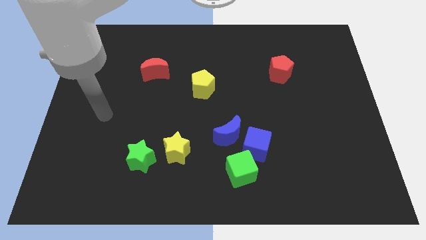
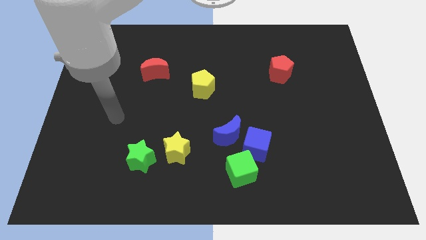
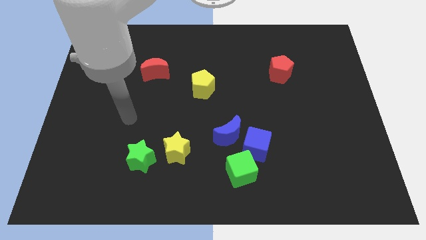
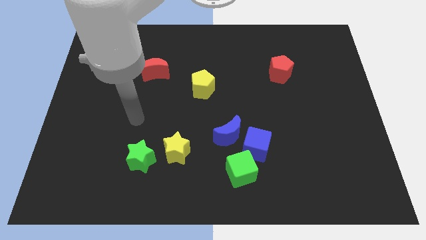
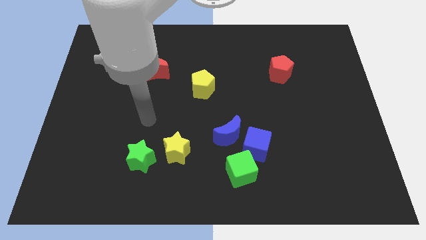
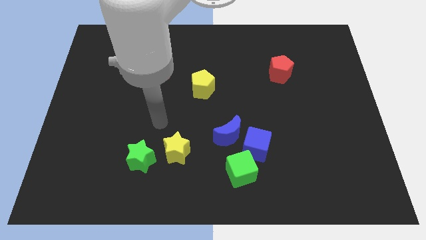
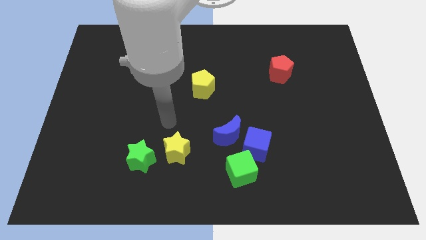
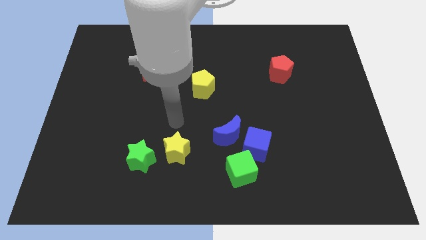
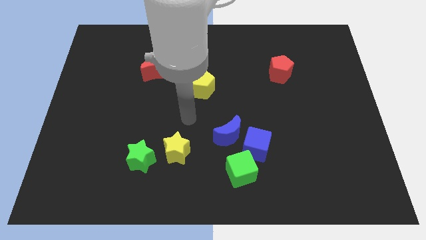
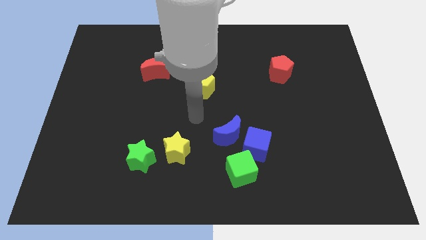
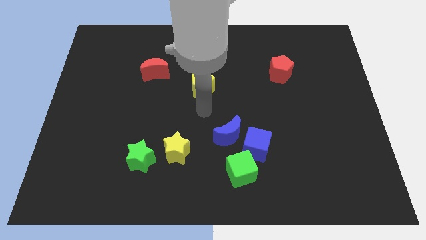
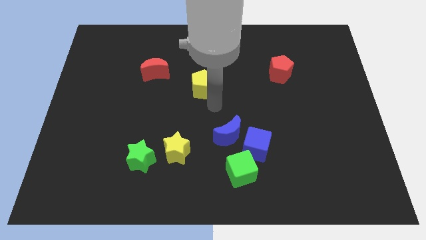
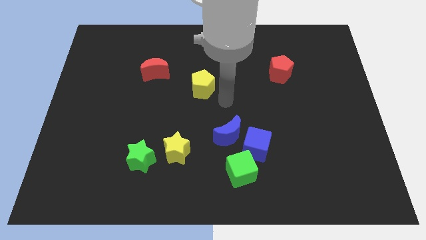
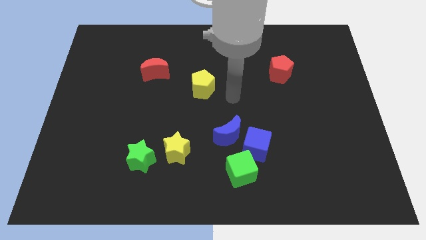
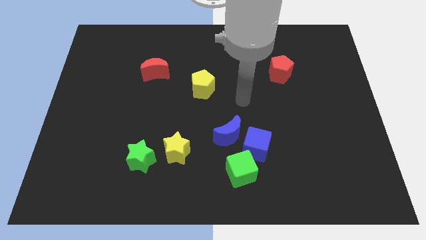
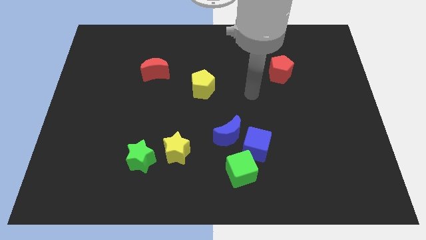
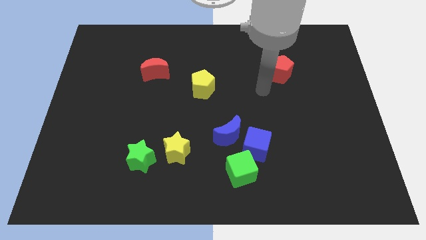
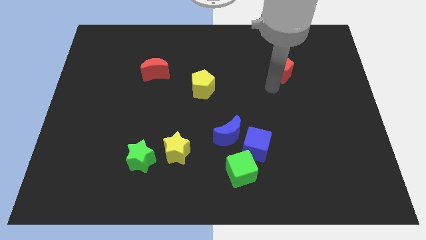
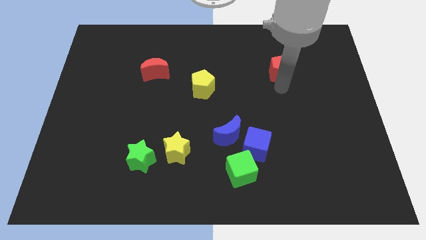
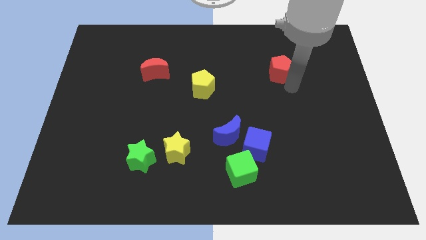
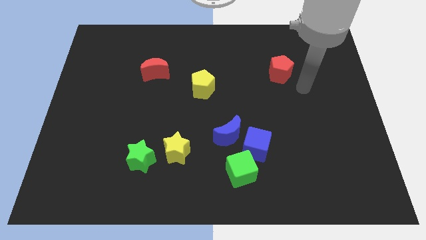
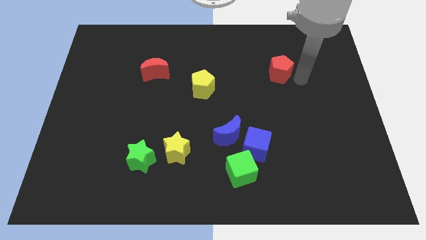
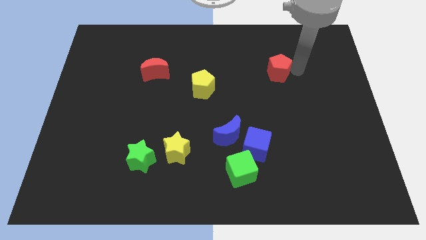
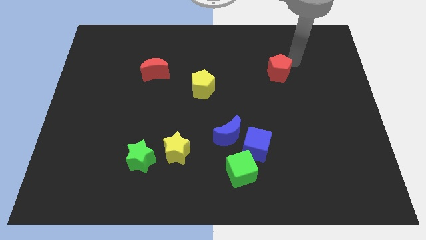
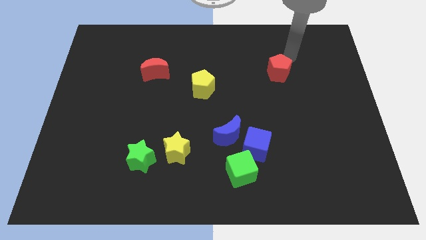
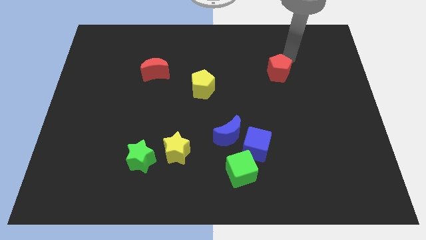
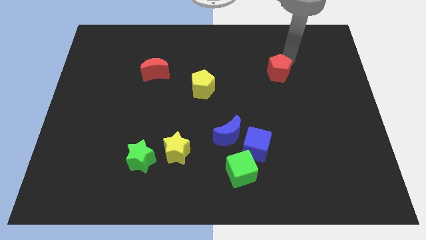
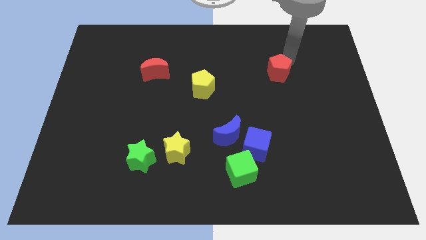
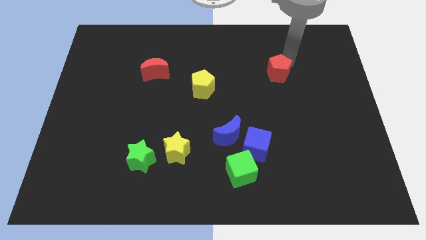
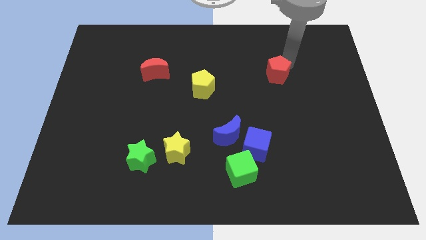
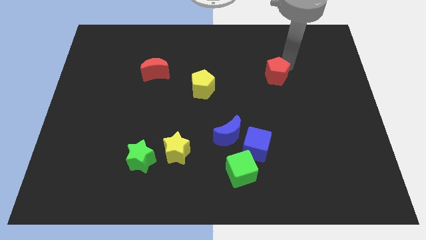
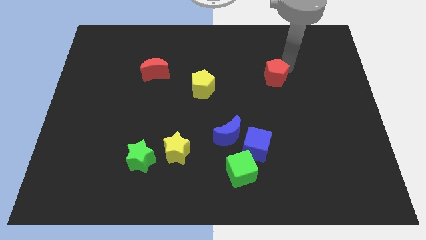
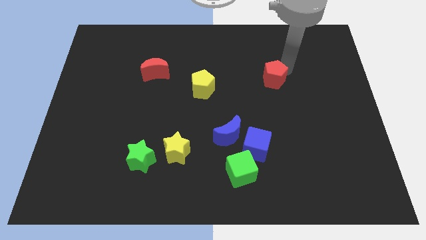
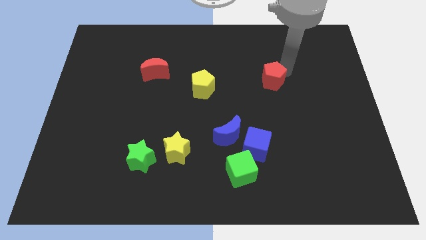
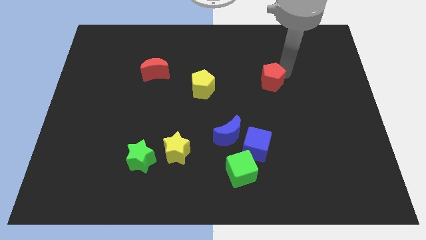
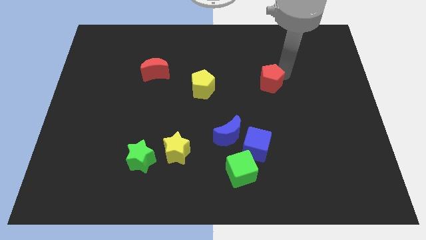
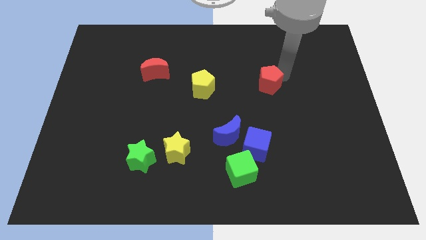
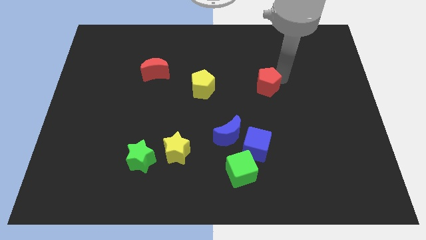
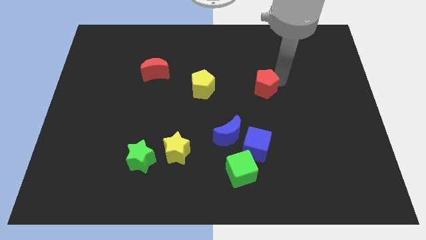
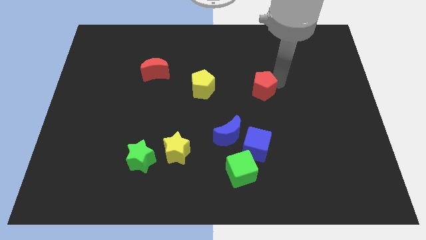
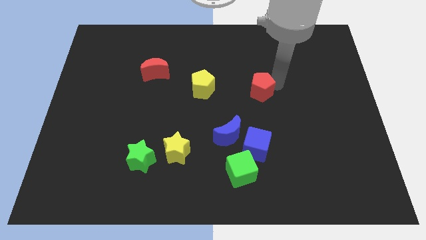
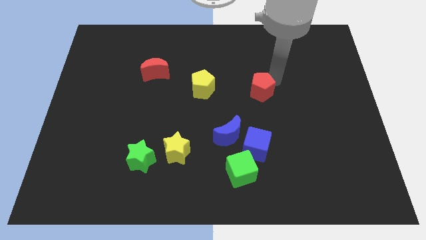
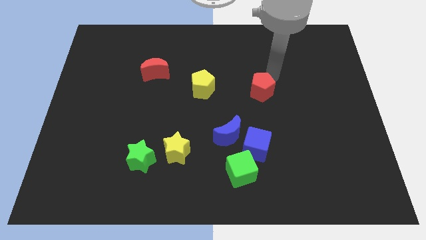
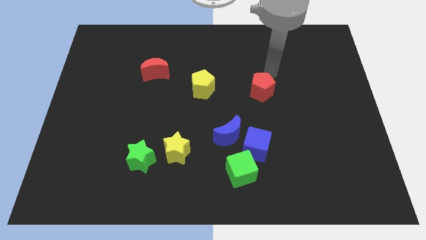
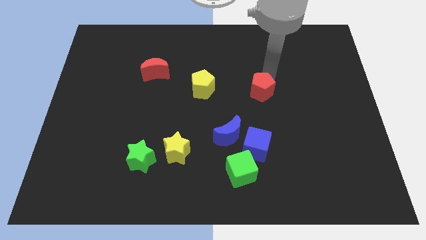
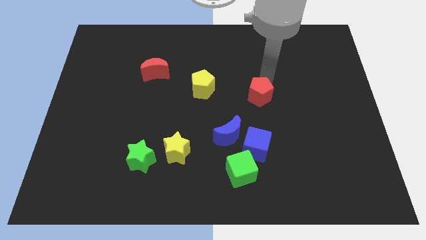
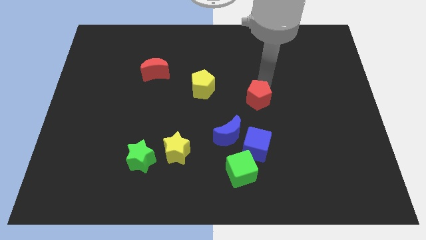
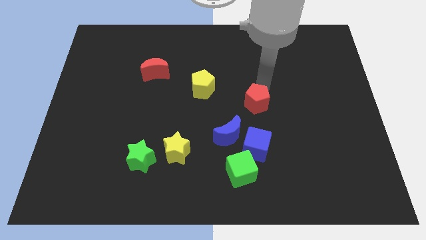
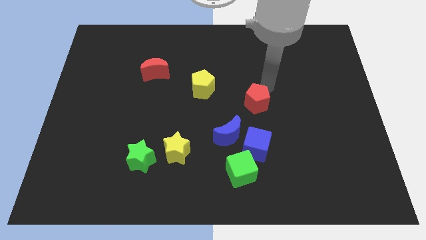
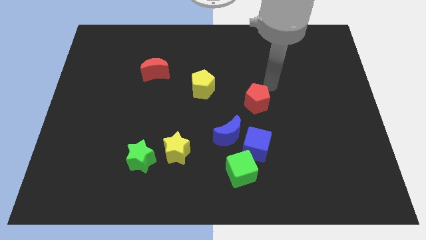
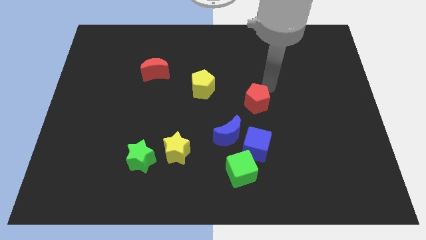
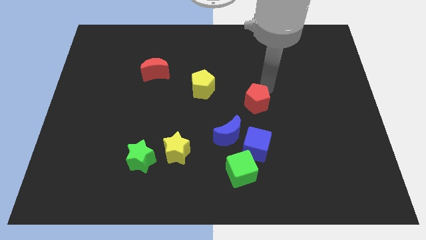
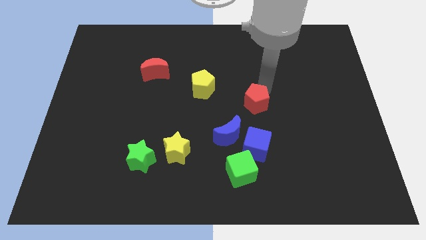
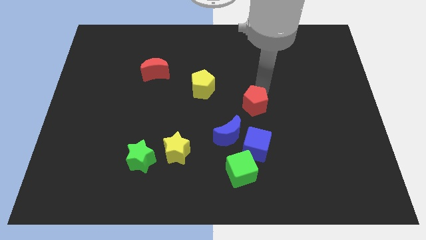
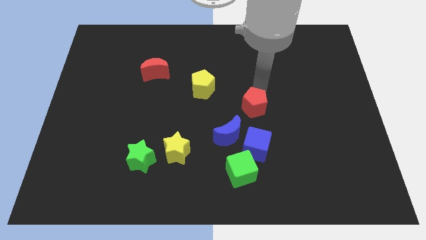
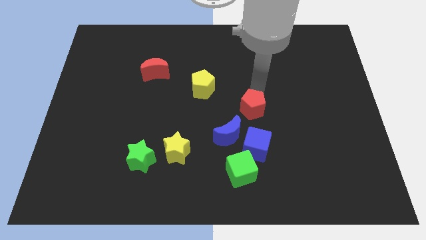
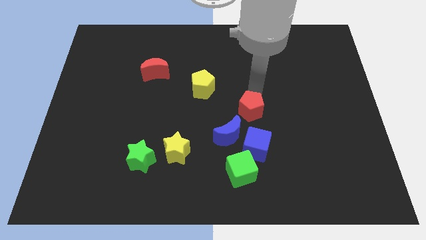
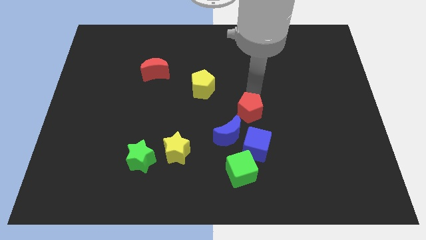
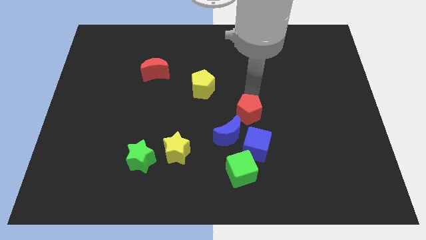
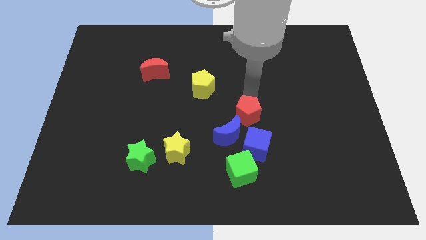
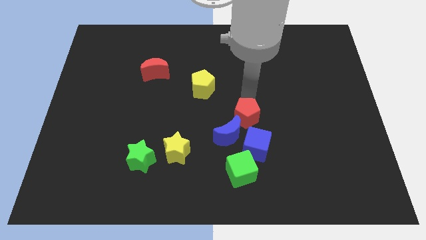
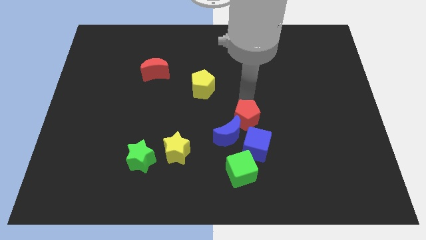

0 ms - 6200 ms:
slide the red pentagon close to the blue moon
